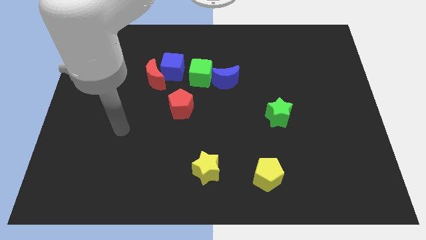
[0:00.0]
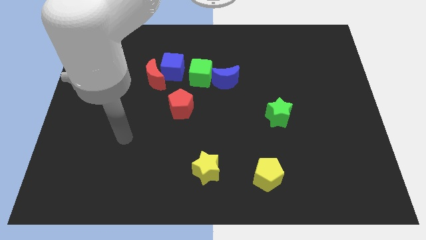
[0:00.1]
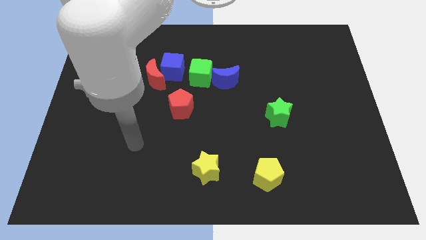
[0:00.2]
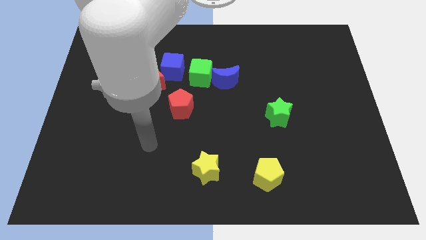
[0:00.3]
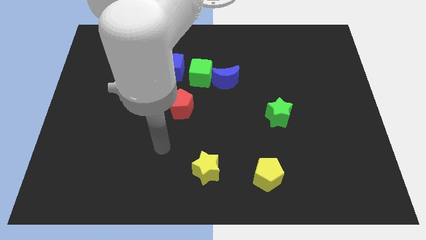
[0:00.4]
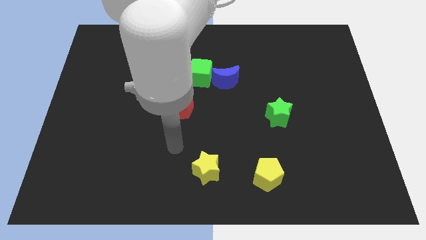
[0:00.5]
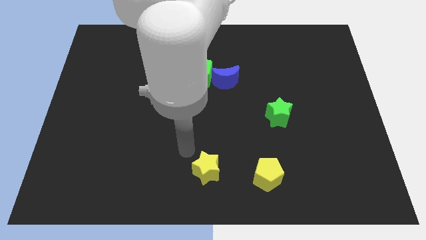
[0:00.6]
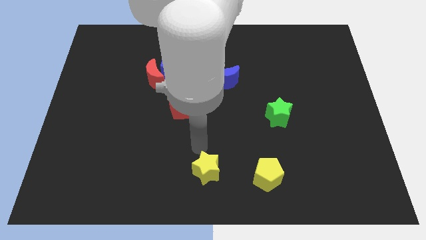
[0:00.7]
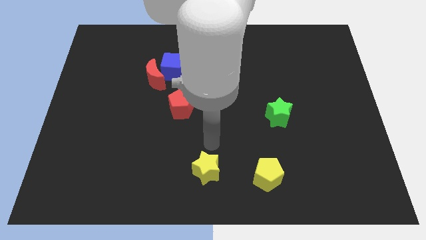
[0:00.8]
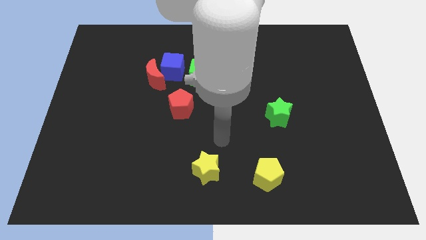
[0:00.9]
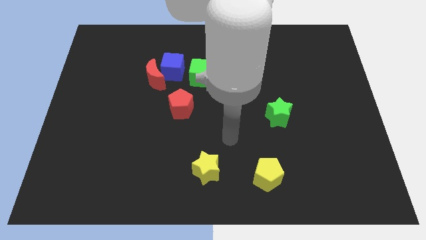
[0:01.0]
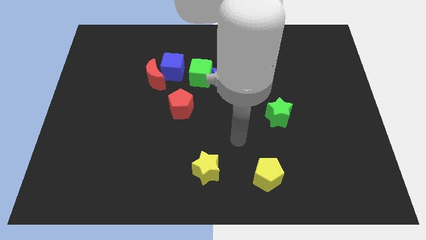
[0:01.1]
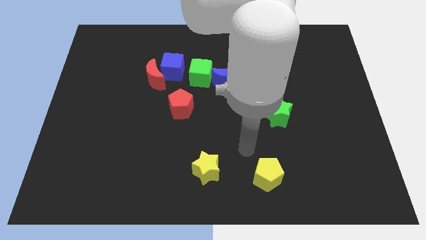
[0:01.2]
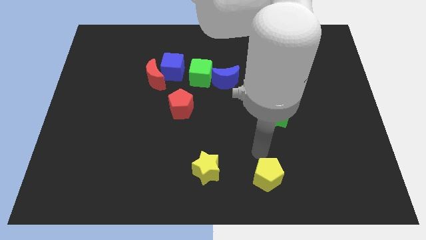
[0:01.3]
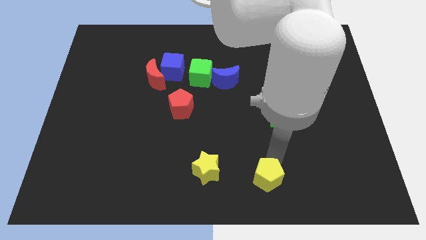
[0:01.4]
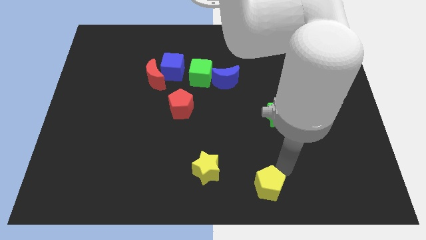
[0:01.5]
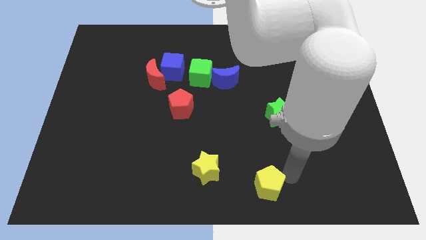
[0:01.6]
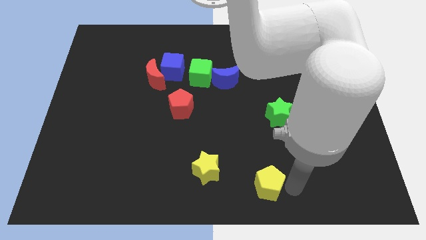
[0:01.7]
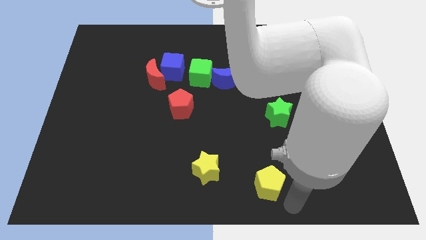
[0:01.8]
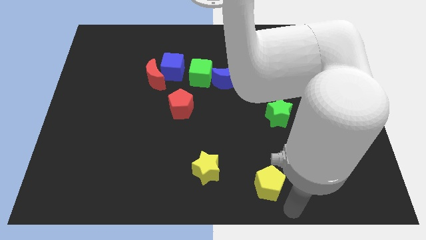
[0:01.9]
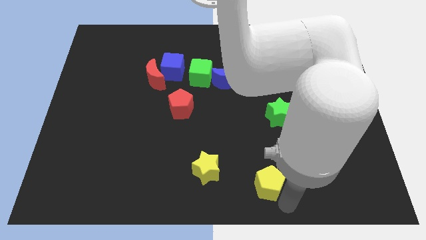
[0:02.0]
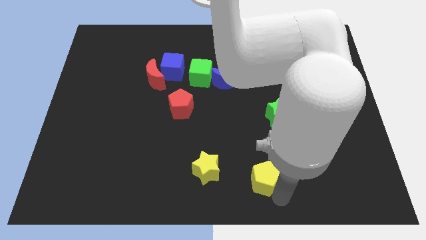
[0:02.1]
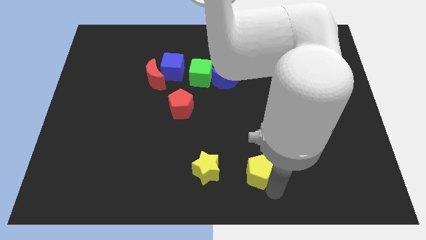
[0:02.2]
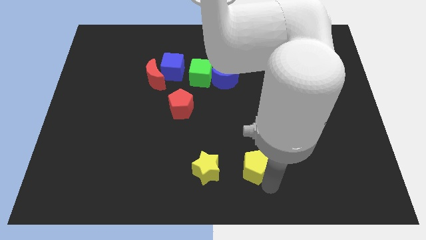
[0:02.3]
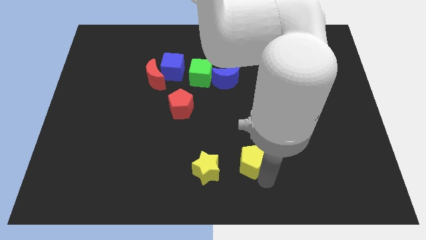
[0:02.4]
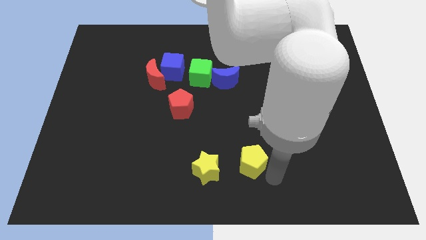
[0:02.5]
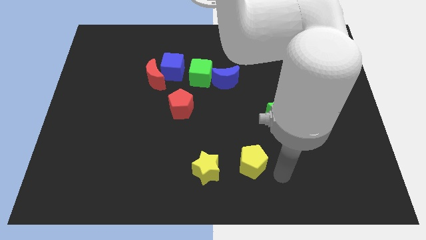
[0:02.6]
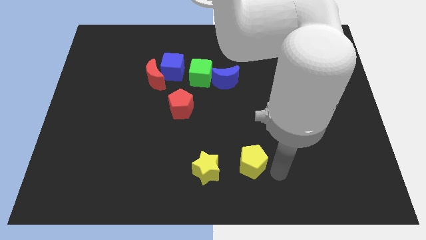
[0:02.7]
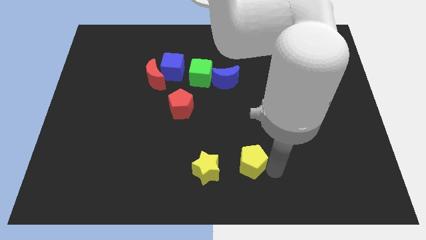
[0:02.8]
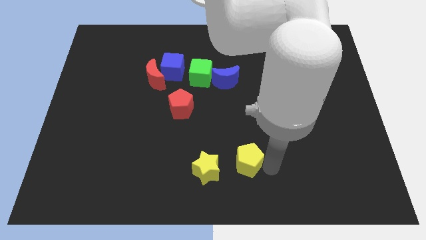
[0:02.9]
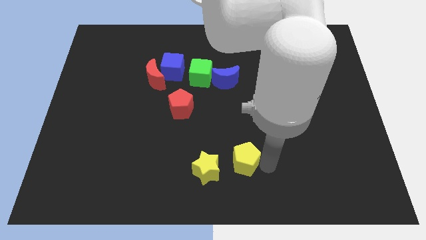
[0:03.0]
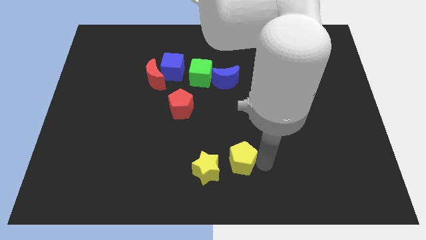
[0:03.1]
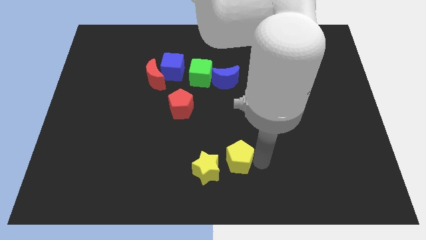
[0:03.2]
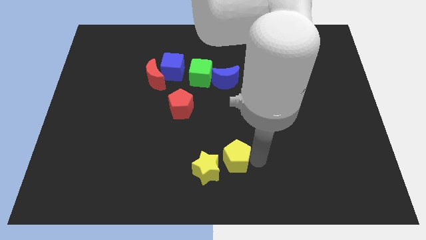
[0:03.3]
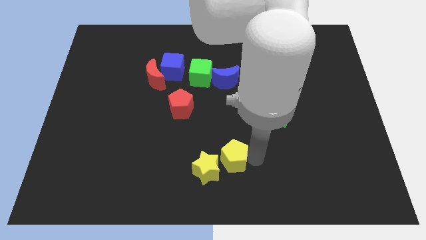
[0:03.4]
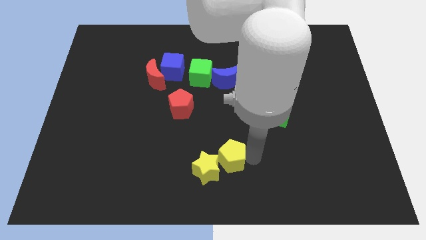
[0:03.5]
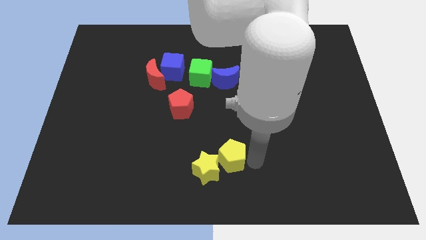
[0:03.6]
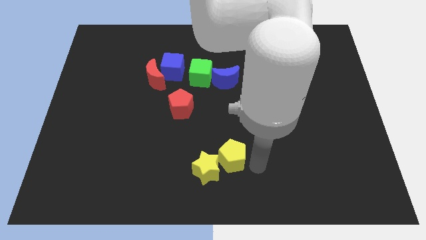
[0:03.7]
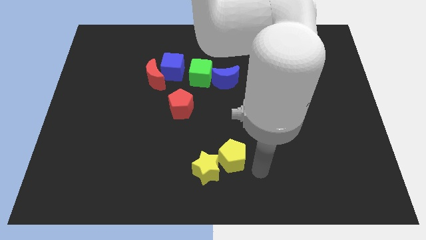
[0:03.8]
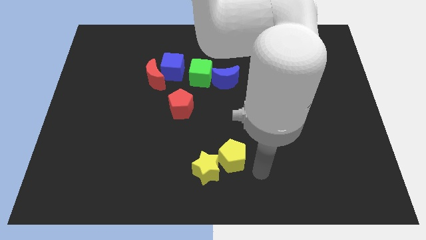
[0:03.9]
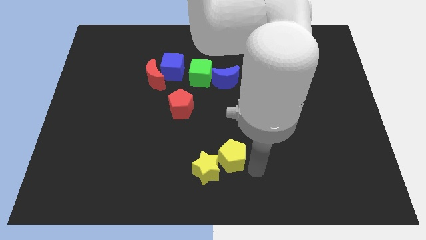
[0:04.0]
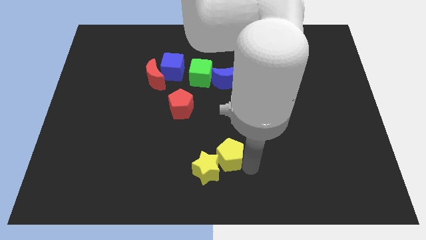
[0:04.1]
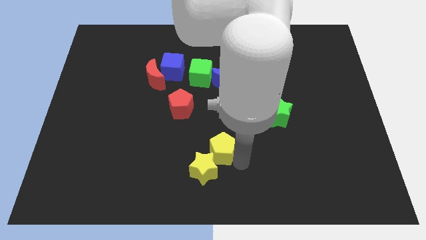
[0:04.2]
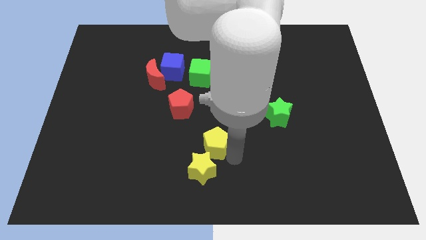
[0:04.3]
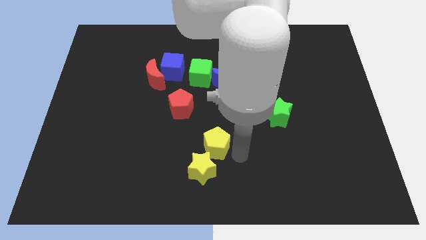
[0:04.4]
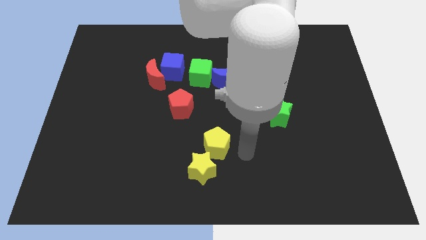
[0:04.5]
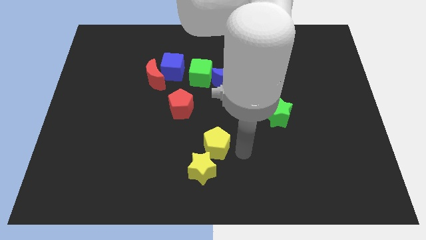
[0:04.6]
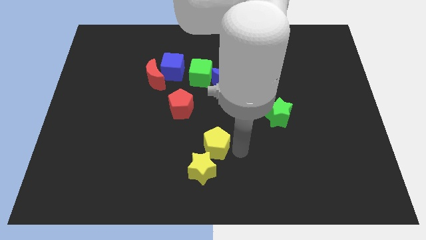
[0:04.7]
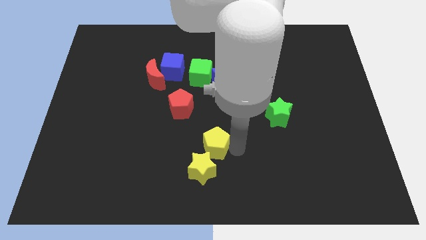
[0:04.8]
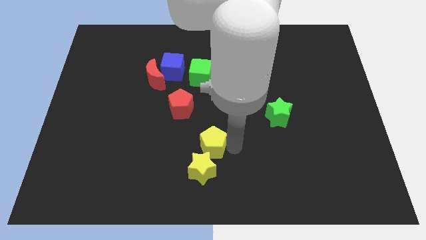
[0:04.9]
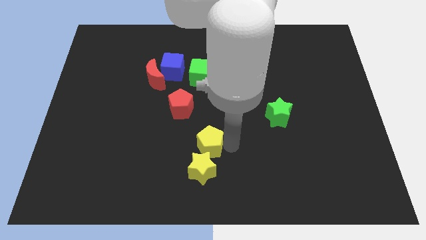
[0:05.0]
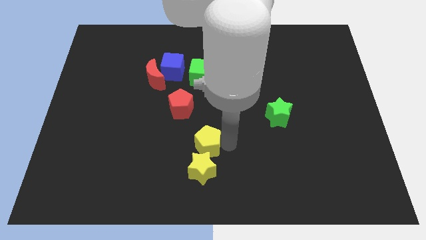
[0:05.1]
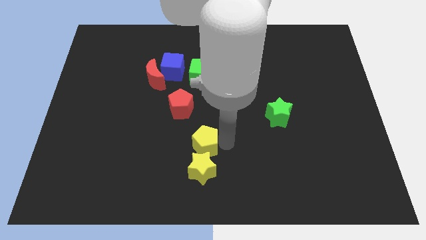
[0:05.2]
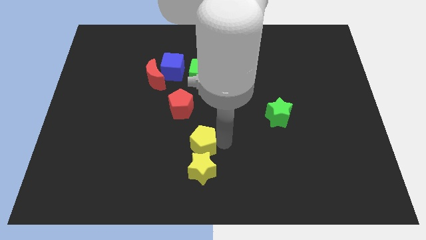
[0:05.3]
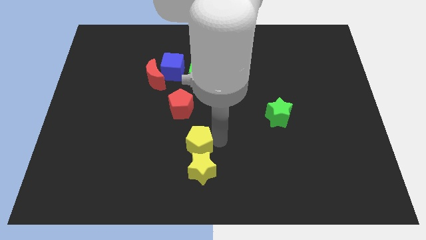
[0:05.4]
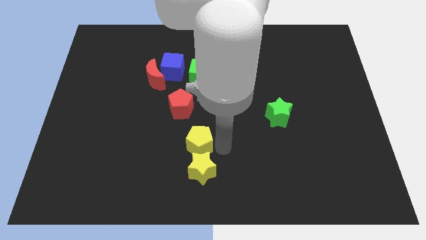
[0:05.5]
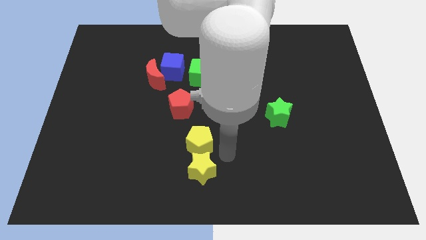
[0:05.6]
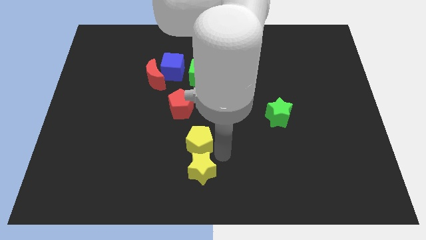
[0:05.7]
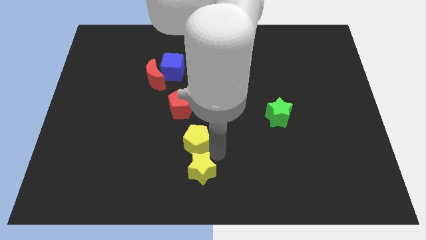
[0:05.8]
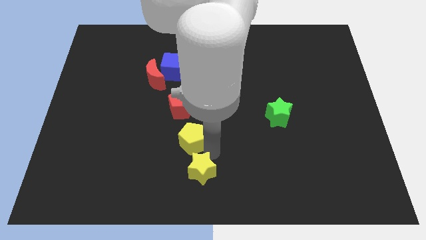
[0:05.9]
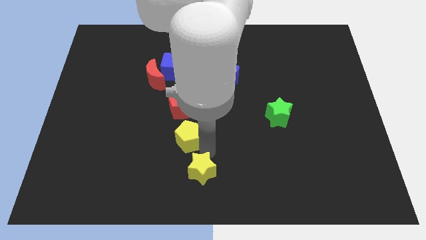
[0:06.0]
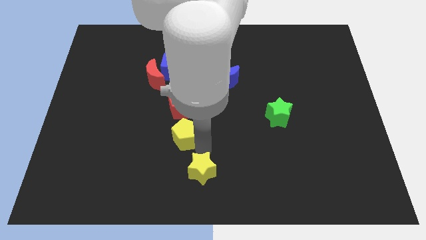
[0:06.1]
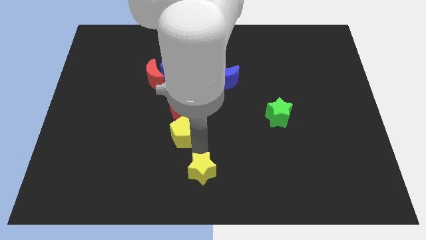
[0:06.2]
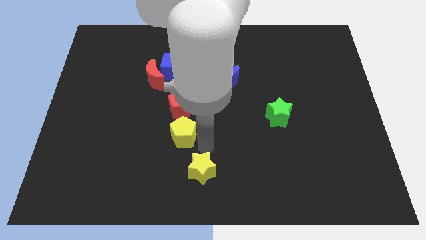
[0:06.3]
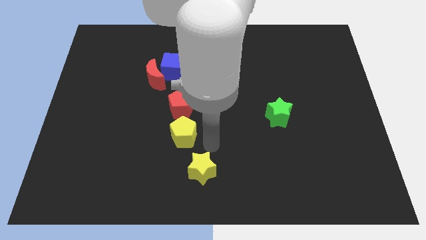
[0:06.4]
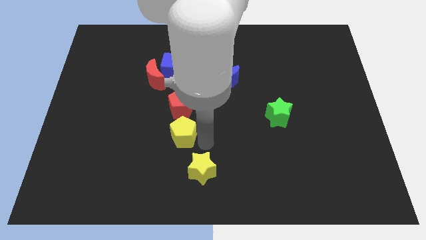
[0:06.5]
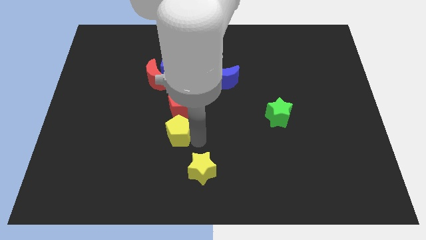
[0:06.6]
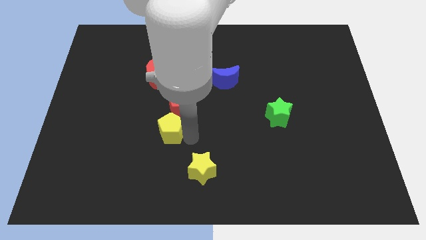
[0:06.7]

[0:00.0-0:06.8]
push the yellow pentagon to the bottom left side of the red pentagon
